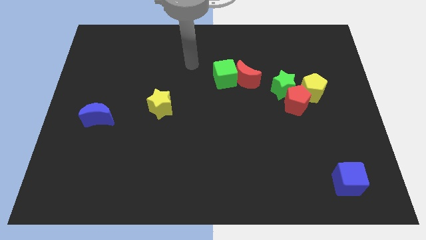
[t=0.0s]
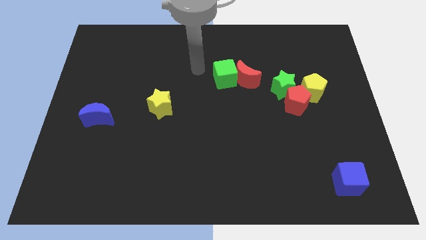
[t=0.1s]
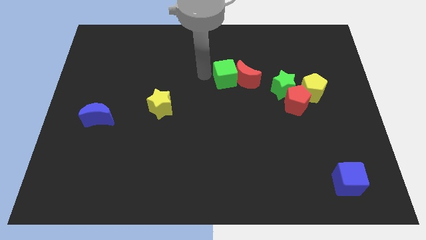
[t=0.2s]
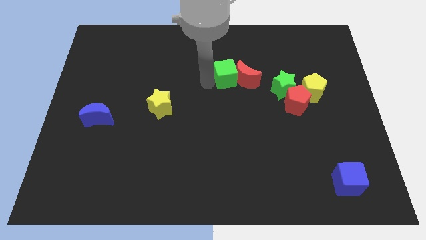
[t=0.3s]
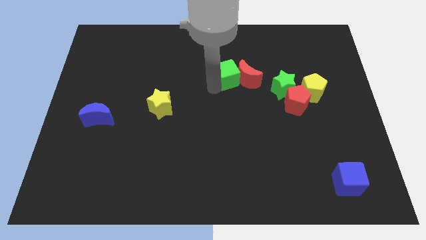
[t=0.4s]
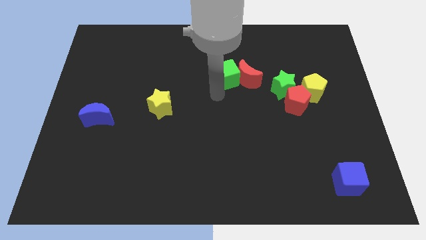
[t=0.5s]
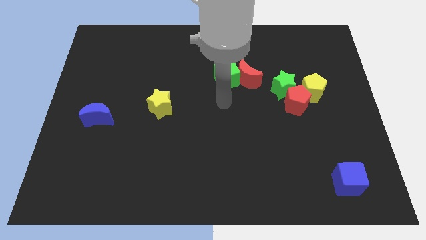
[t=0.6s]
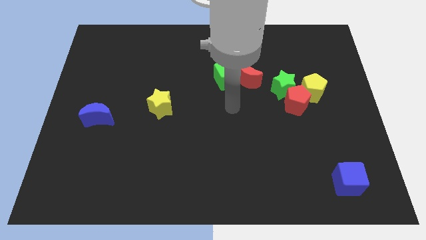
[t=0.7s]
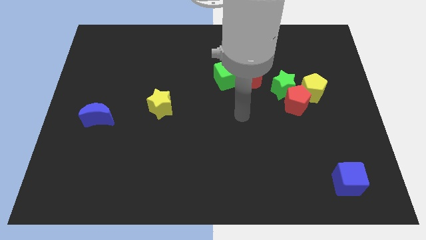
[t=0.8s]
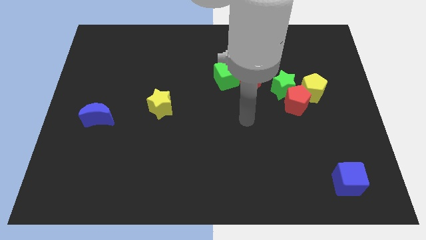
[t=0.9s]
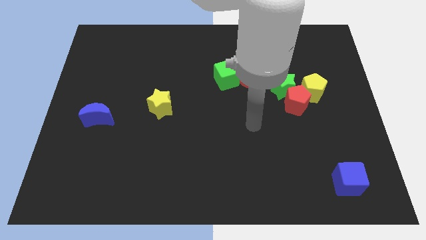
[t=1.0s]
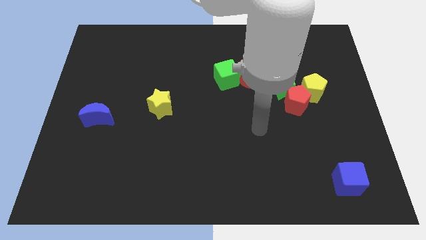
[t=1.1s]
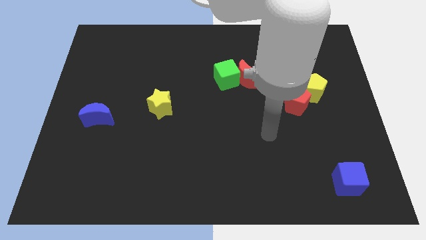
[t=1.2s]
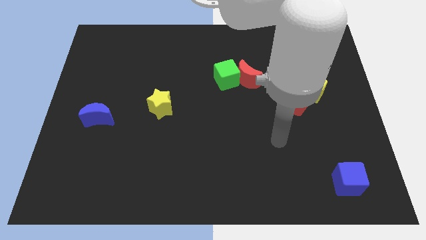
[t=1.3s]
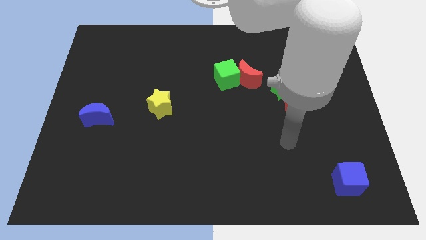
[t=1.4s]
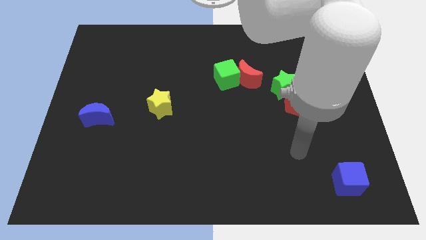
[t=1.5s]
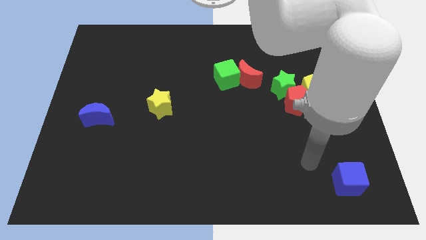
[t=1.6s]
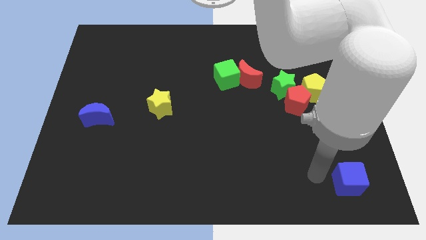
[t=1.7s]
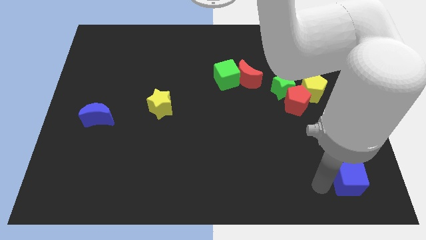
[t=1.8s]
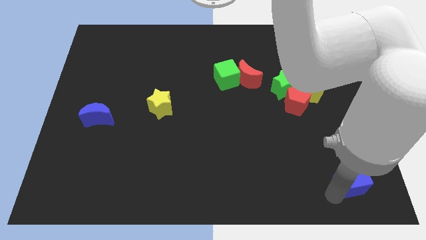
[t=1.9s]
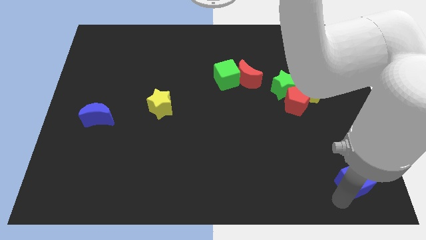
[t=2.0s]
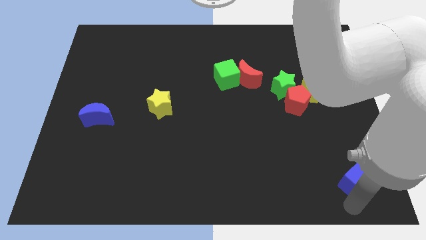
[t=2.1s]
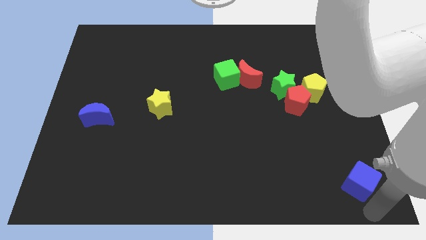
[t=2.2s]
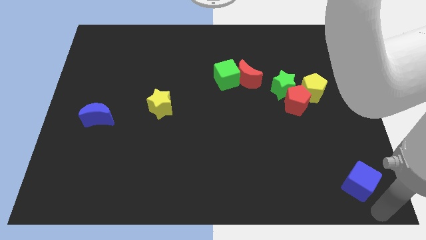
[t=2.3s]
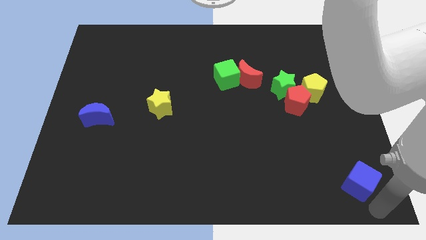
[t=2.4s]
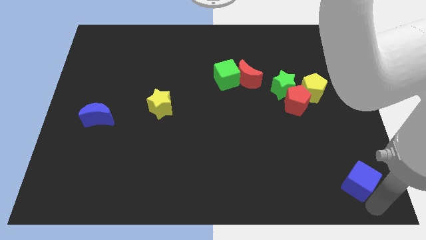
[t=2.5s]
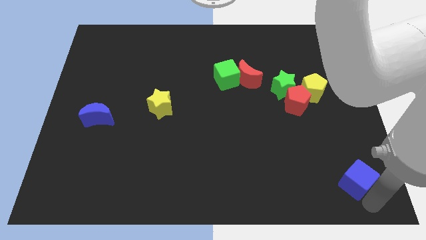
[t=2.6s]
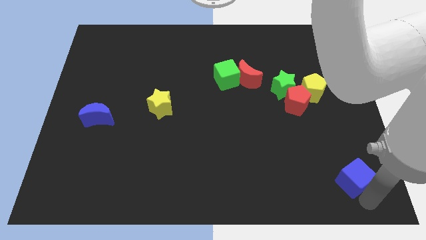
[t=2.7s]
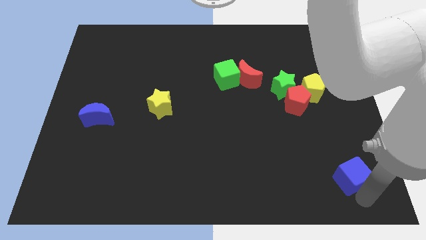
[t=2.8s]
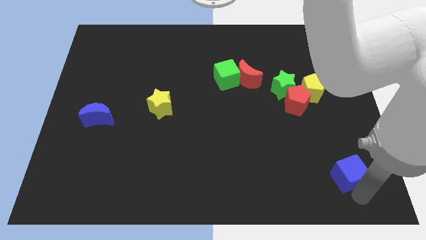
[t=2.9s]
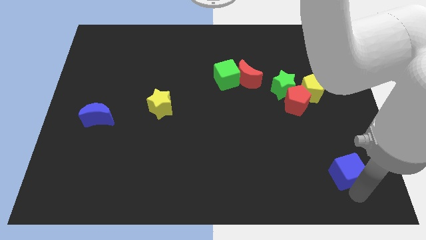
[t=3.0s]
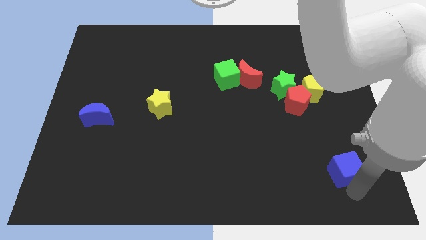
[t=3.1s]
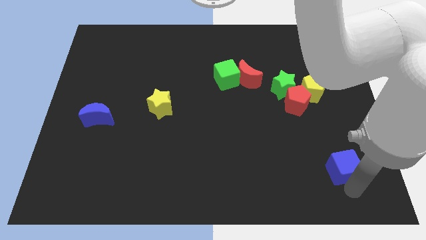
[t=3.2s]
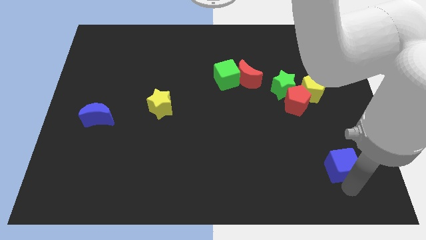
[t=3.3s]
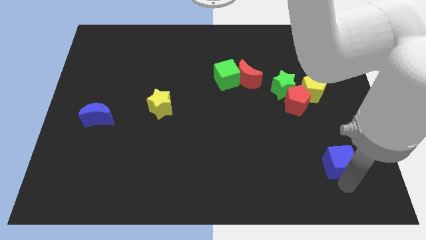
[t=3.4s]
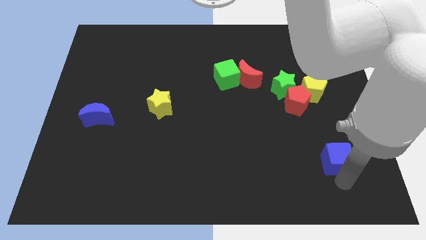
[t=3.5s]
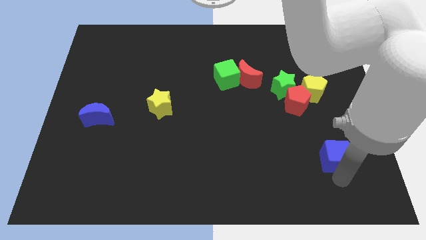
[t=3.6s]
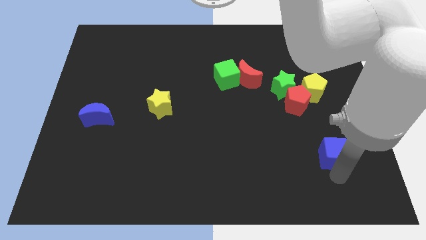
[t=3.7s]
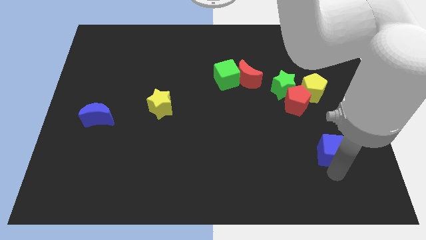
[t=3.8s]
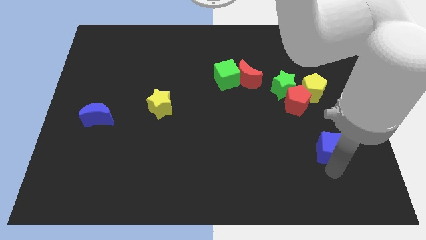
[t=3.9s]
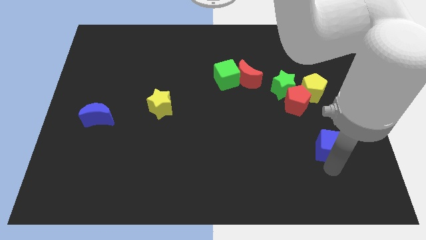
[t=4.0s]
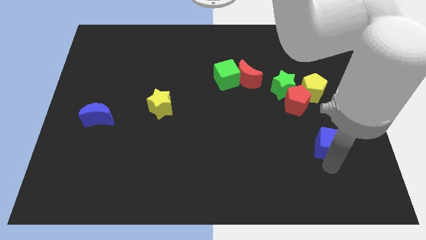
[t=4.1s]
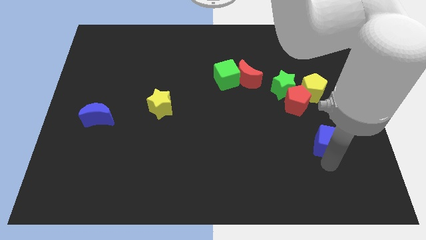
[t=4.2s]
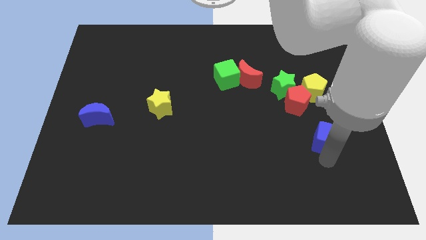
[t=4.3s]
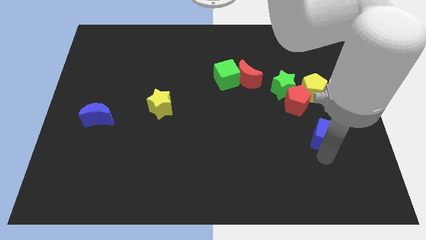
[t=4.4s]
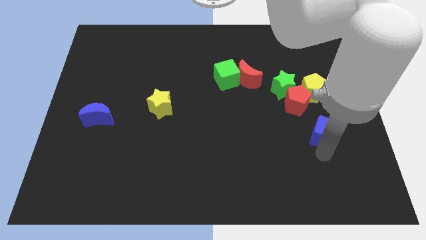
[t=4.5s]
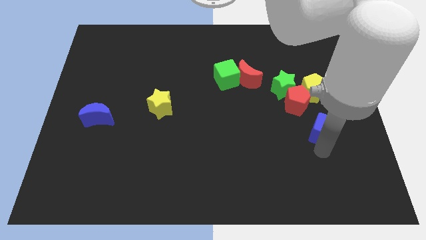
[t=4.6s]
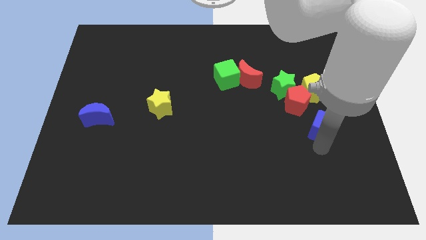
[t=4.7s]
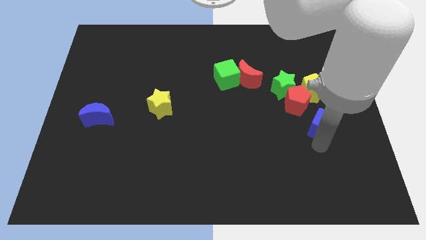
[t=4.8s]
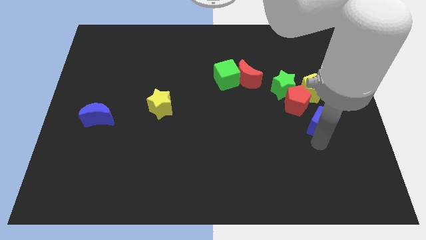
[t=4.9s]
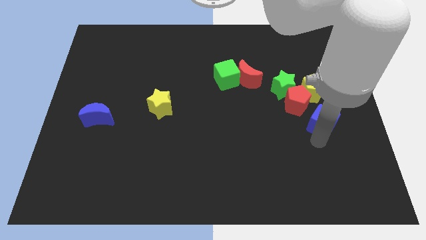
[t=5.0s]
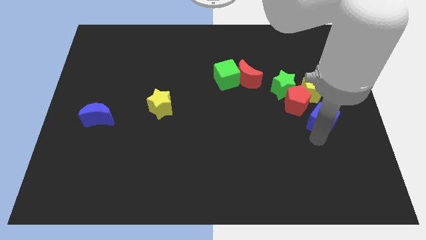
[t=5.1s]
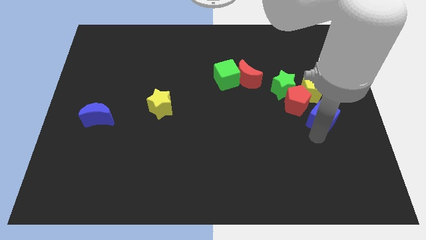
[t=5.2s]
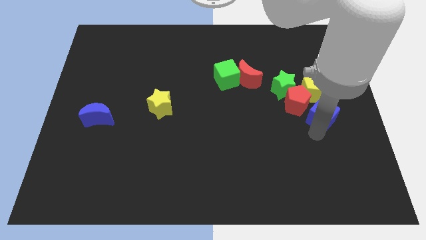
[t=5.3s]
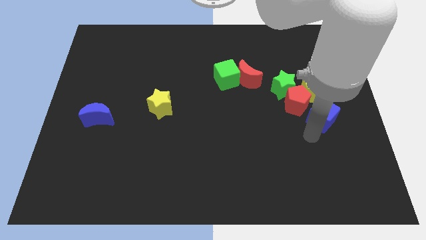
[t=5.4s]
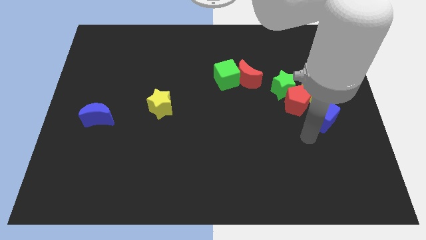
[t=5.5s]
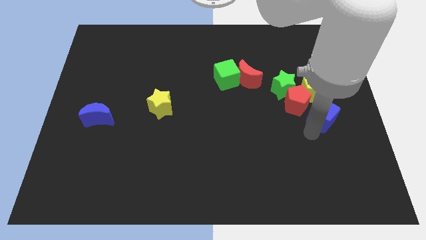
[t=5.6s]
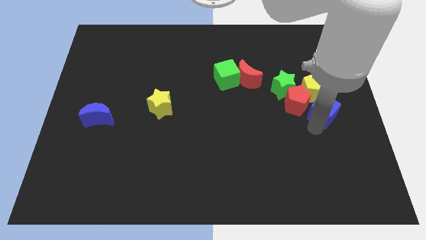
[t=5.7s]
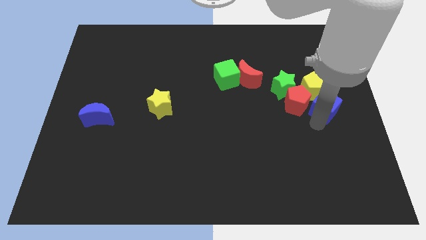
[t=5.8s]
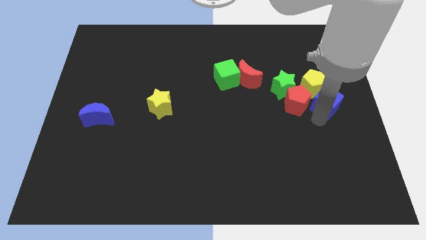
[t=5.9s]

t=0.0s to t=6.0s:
move the blue cube upwards

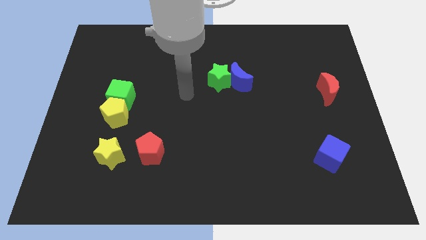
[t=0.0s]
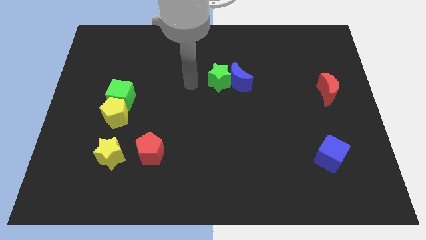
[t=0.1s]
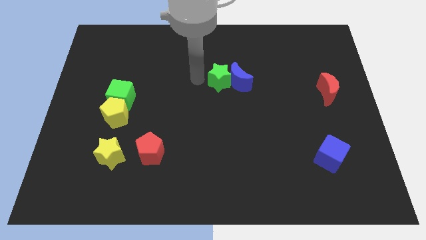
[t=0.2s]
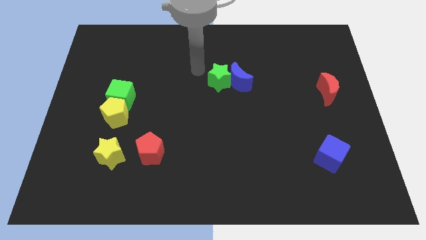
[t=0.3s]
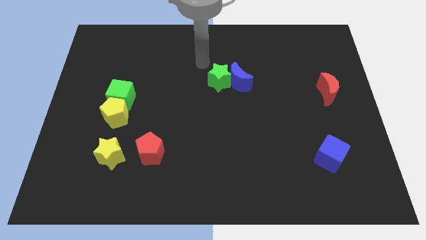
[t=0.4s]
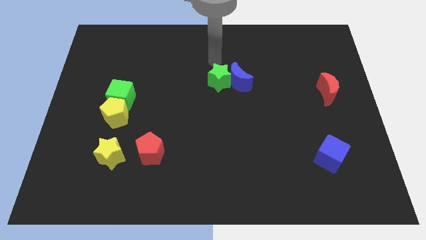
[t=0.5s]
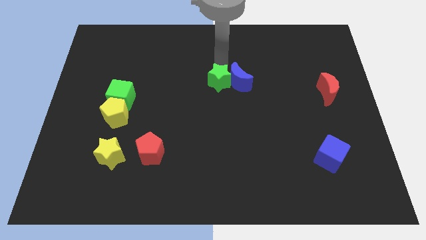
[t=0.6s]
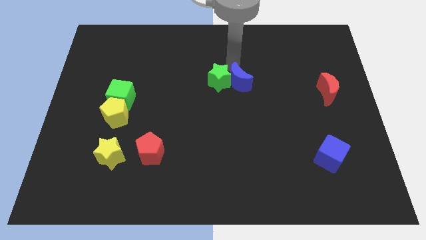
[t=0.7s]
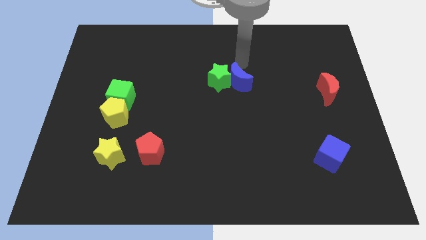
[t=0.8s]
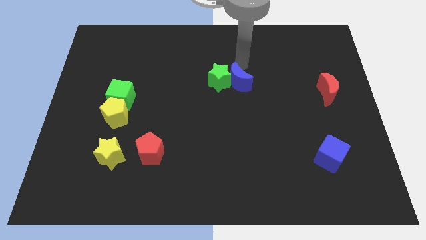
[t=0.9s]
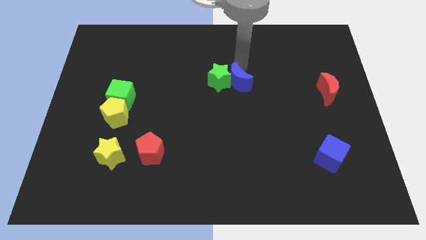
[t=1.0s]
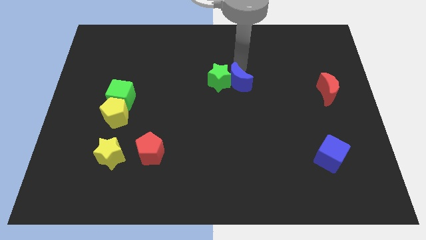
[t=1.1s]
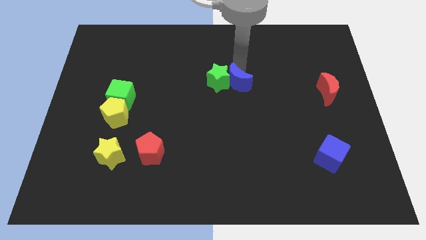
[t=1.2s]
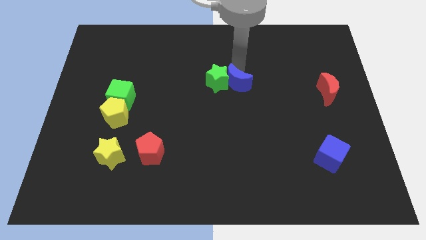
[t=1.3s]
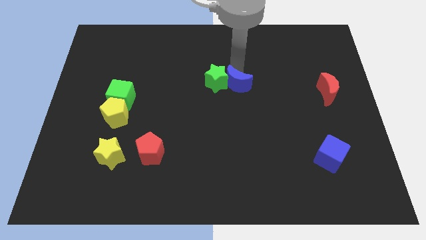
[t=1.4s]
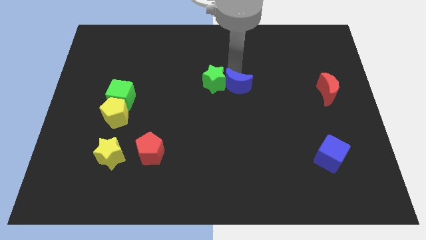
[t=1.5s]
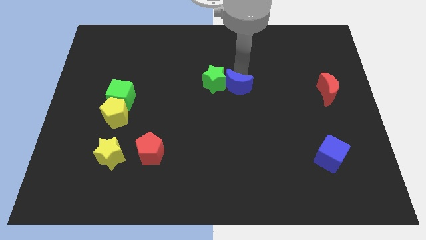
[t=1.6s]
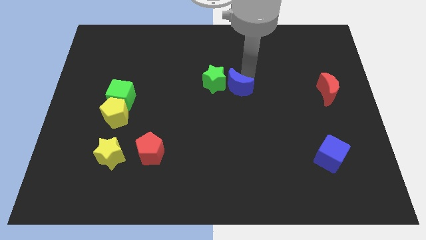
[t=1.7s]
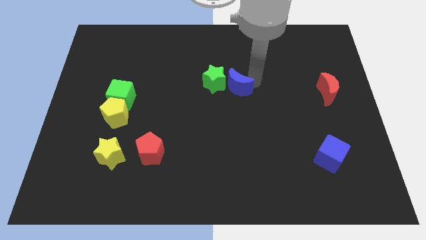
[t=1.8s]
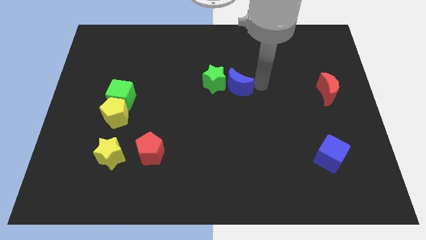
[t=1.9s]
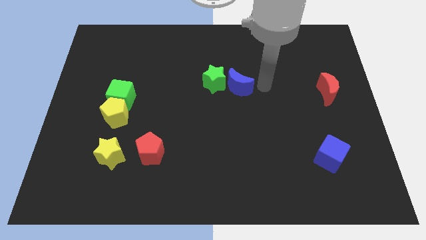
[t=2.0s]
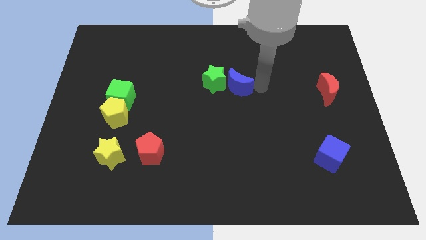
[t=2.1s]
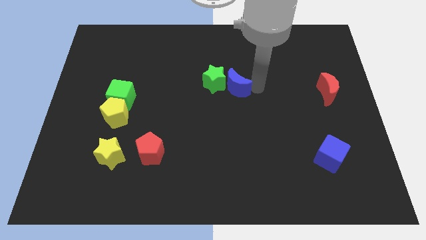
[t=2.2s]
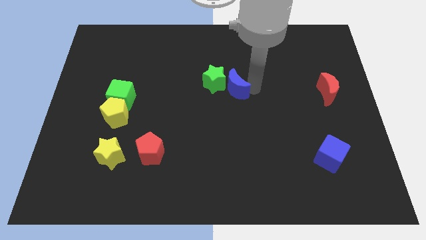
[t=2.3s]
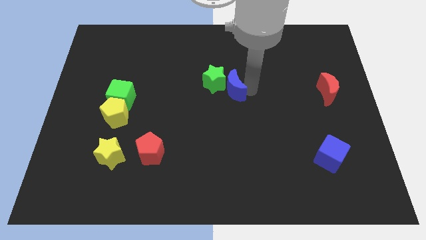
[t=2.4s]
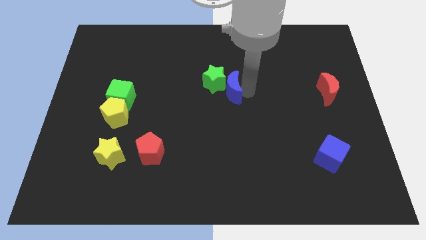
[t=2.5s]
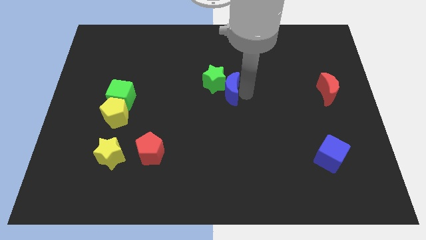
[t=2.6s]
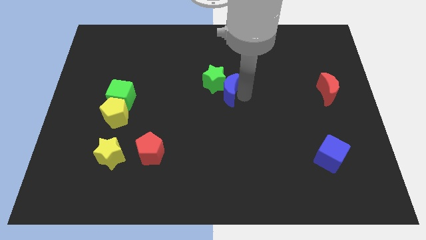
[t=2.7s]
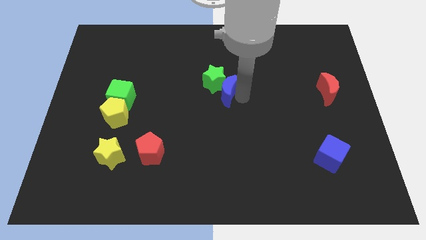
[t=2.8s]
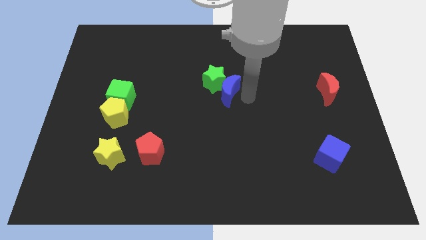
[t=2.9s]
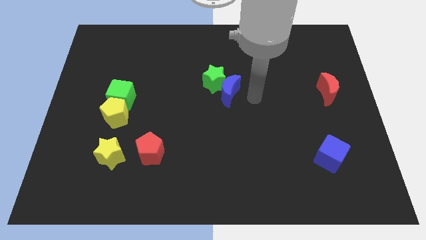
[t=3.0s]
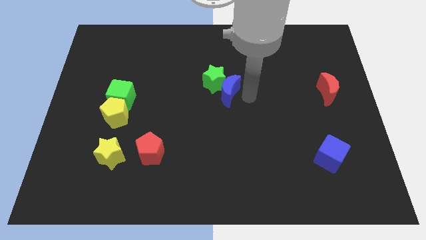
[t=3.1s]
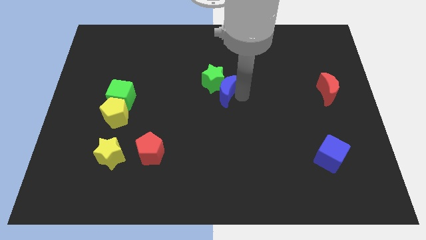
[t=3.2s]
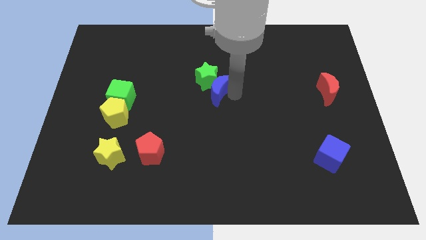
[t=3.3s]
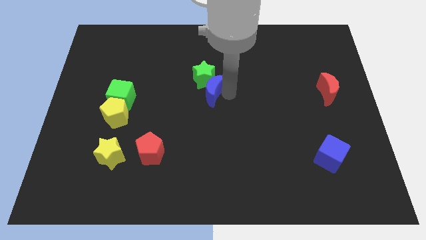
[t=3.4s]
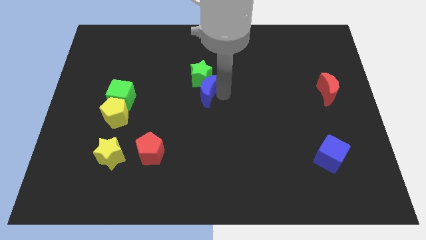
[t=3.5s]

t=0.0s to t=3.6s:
slightly move the blue moon left
